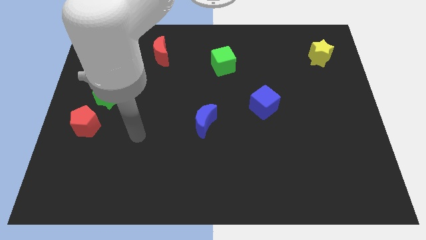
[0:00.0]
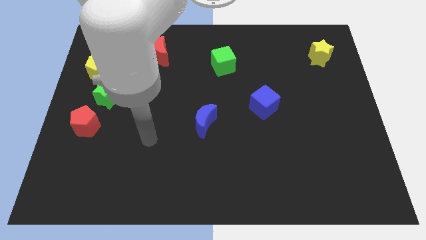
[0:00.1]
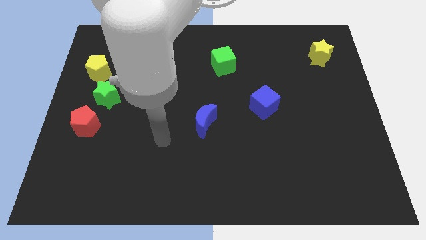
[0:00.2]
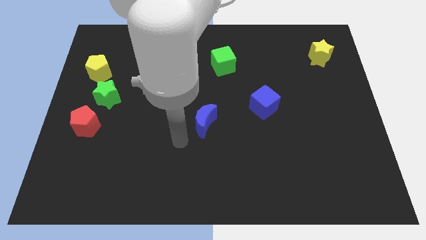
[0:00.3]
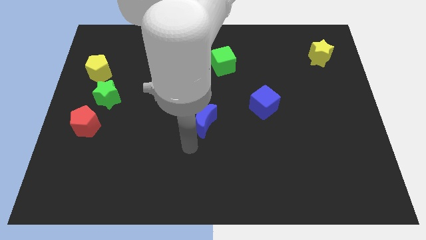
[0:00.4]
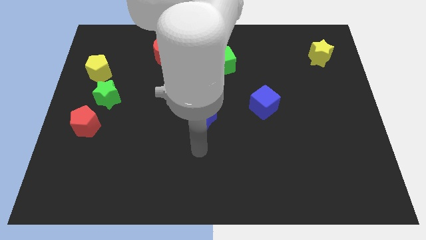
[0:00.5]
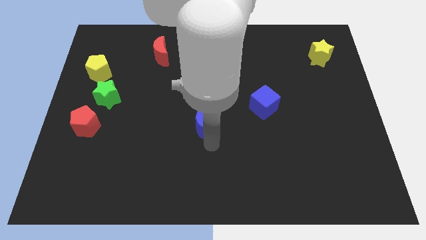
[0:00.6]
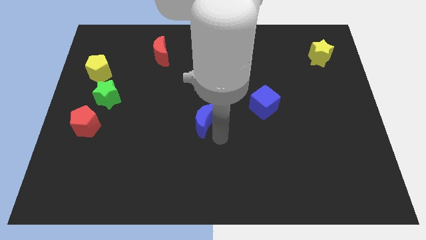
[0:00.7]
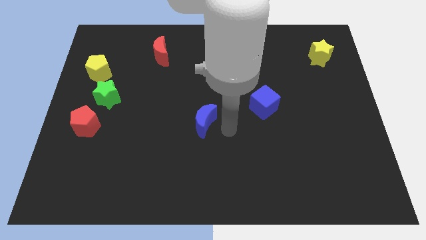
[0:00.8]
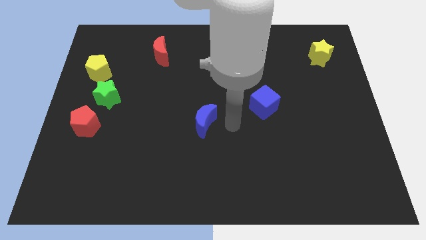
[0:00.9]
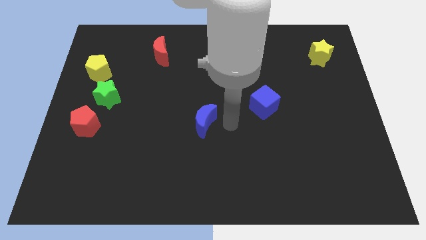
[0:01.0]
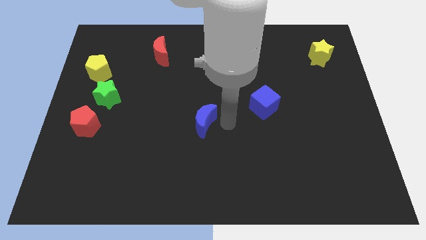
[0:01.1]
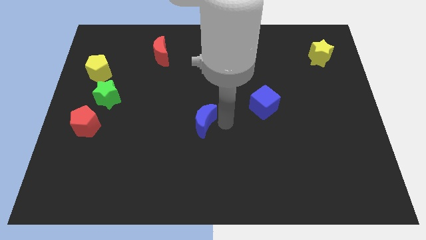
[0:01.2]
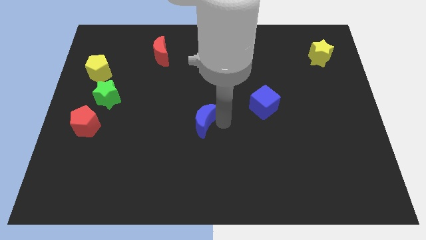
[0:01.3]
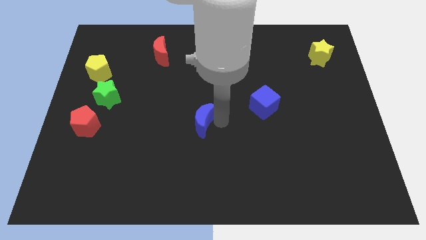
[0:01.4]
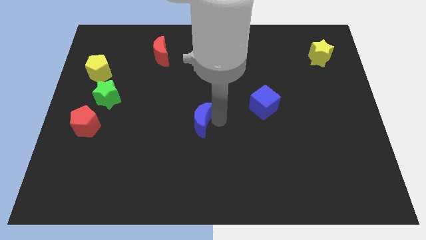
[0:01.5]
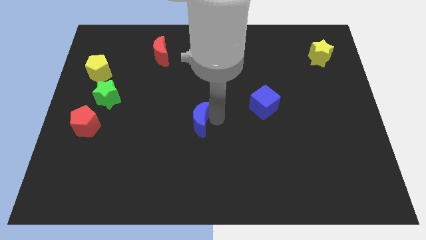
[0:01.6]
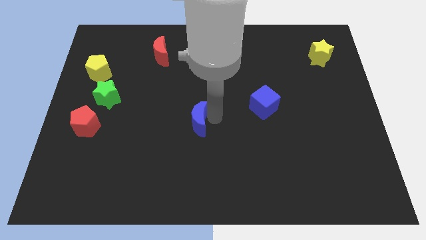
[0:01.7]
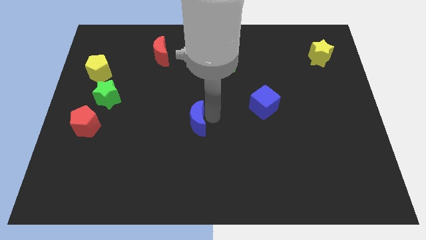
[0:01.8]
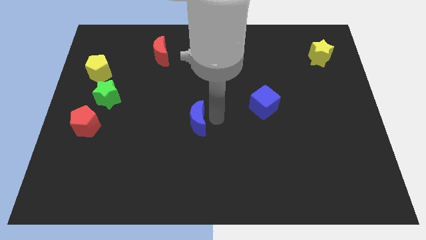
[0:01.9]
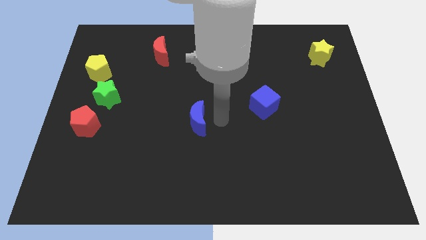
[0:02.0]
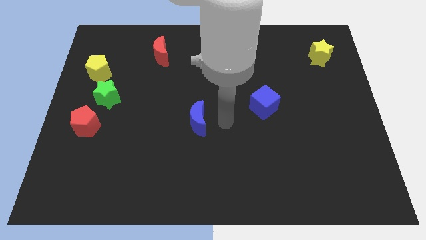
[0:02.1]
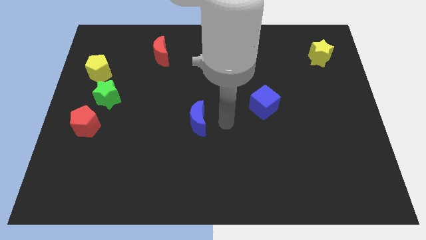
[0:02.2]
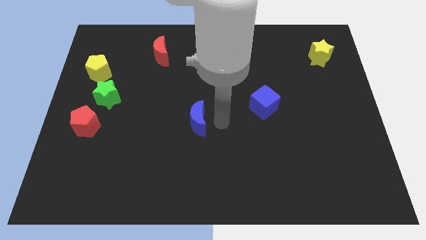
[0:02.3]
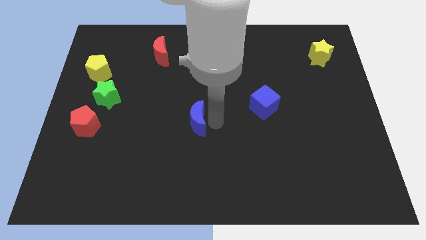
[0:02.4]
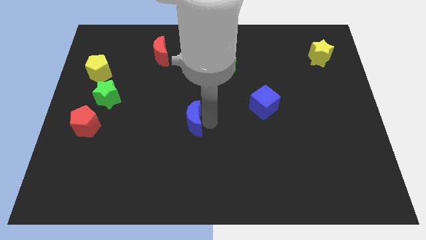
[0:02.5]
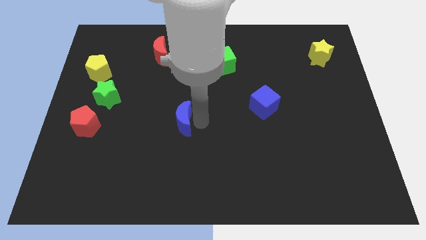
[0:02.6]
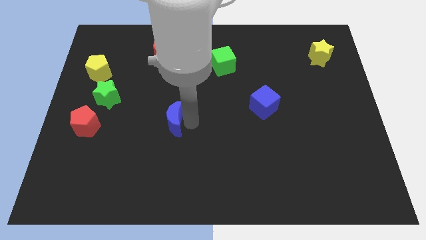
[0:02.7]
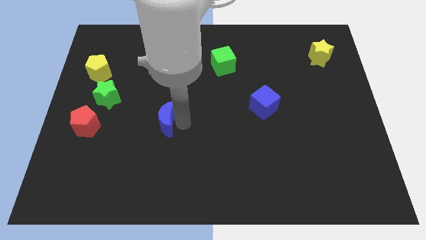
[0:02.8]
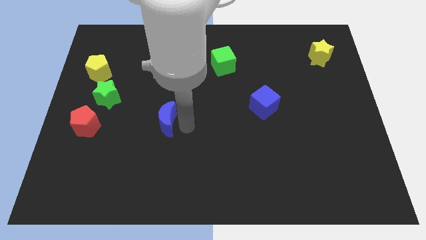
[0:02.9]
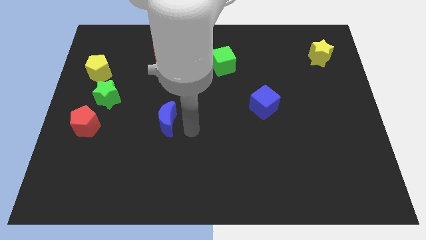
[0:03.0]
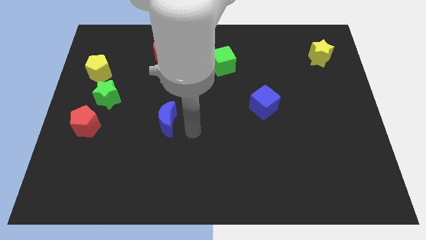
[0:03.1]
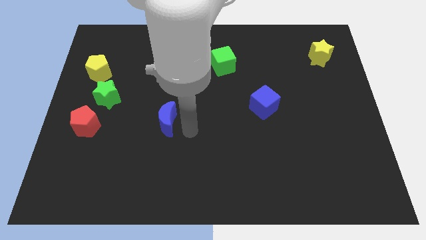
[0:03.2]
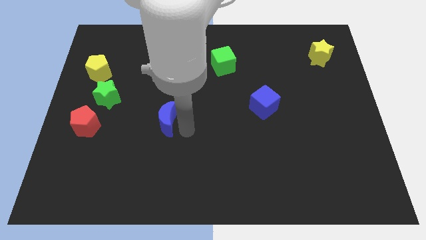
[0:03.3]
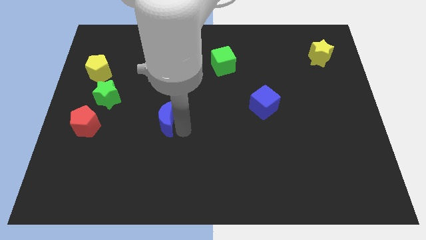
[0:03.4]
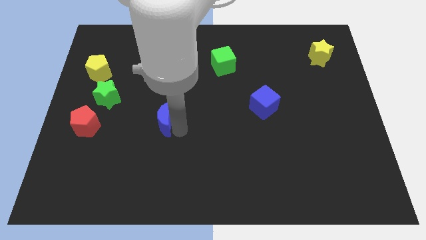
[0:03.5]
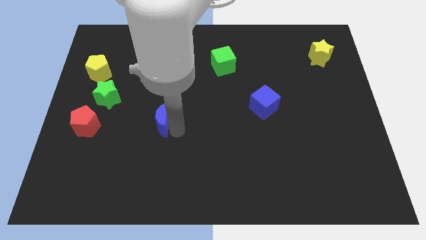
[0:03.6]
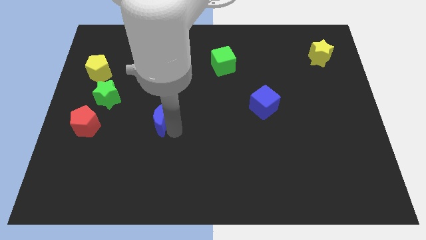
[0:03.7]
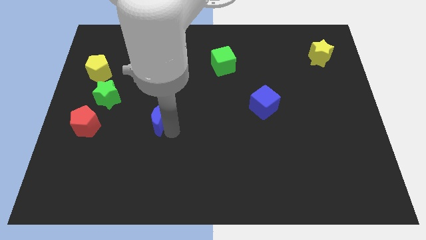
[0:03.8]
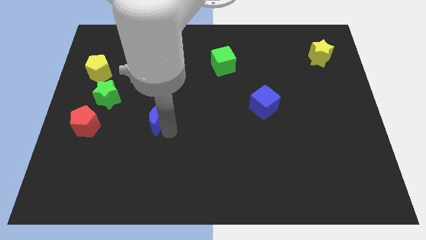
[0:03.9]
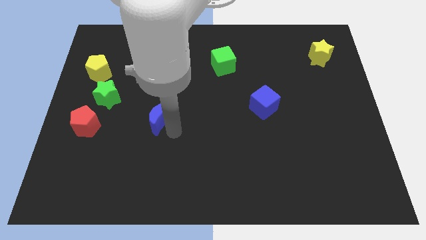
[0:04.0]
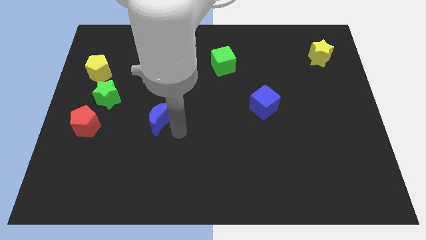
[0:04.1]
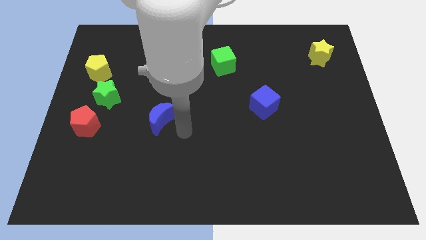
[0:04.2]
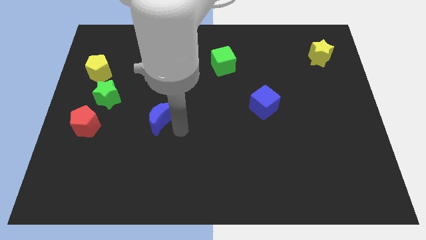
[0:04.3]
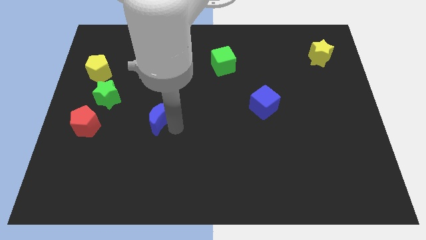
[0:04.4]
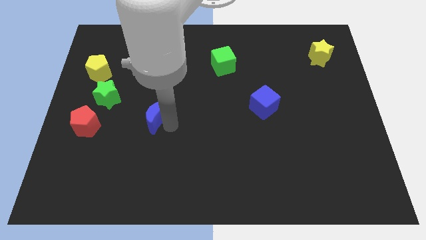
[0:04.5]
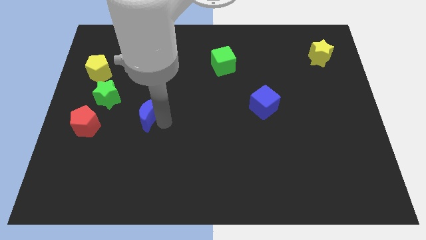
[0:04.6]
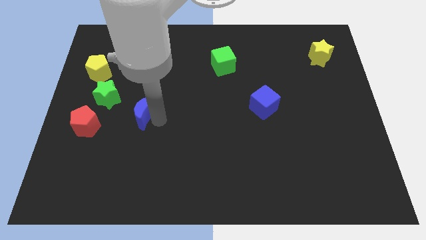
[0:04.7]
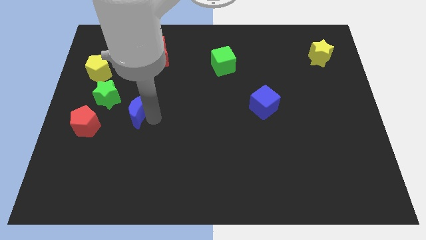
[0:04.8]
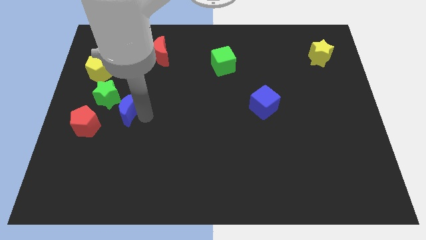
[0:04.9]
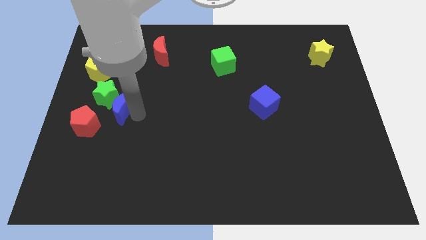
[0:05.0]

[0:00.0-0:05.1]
slide the blue moon close to the green star

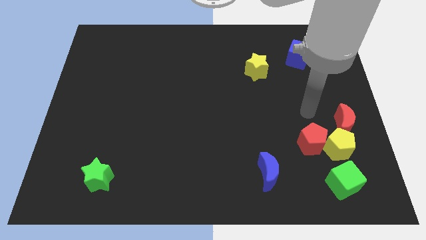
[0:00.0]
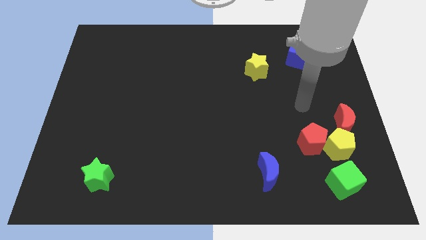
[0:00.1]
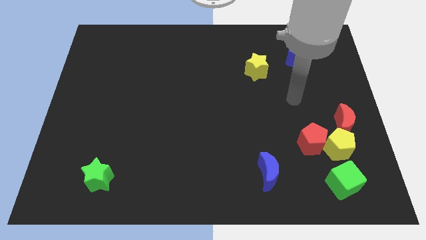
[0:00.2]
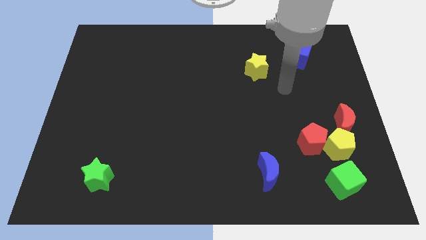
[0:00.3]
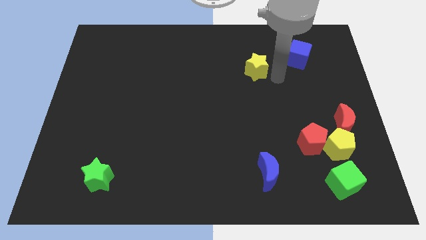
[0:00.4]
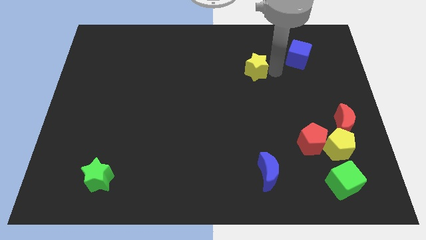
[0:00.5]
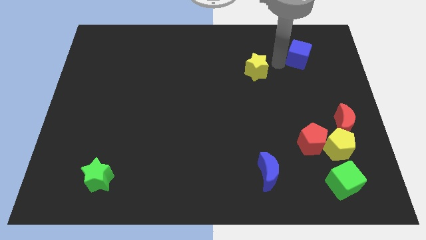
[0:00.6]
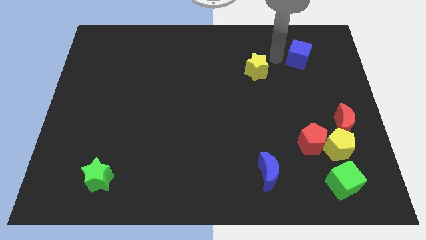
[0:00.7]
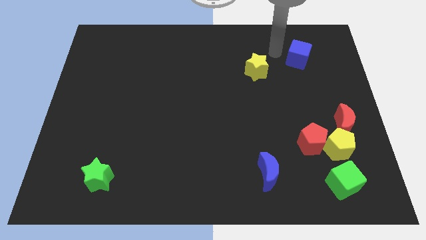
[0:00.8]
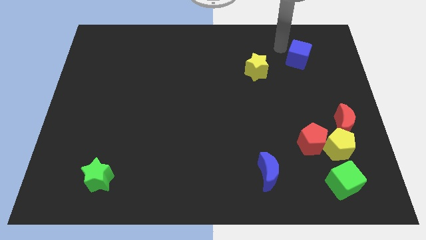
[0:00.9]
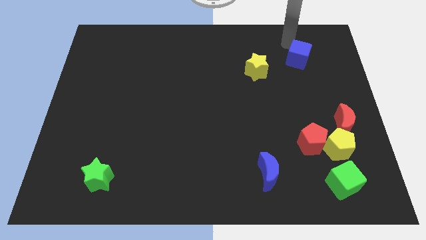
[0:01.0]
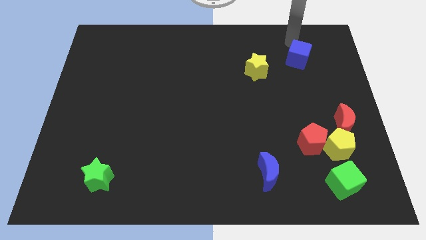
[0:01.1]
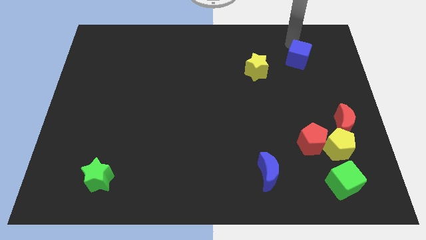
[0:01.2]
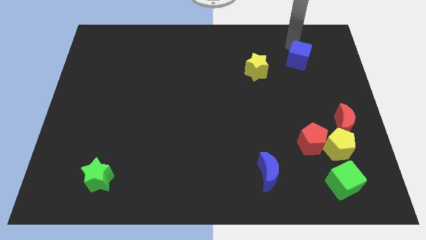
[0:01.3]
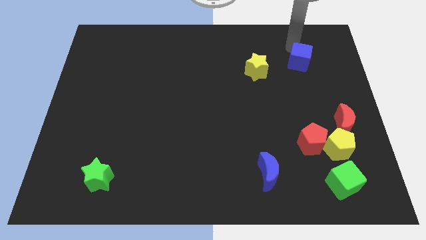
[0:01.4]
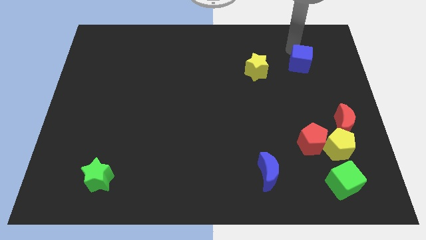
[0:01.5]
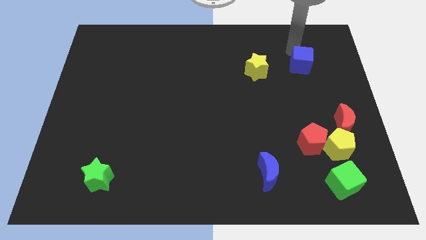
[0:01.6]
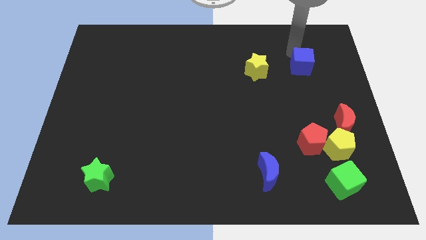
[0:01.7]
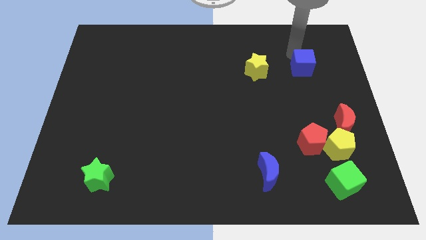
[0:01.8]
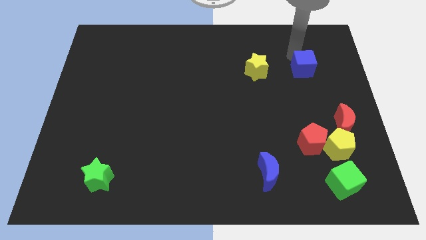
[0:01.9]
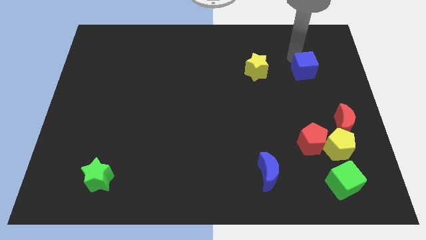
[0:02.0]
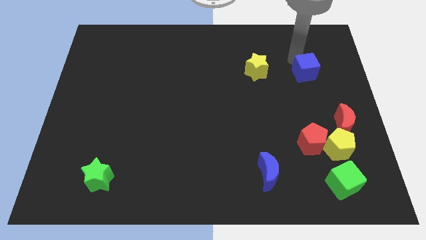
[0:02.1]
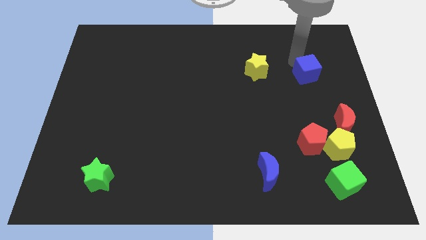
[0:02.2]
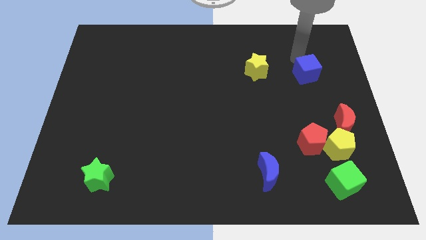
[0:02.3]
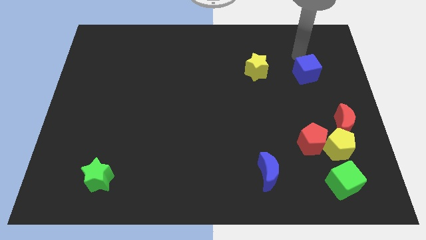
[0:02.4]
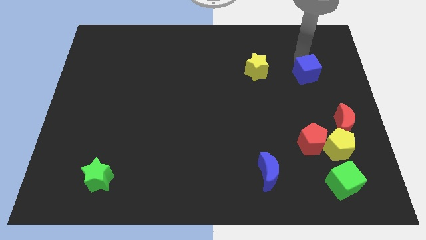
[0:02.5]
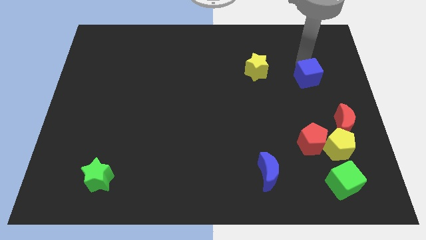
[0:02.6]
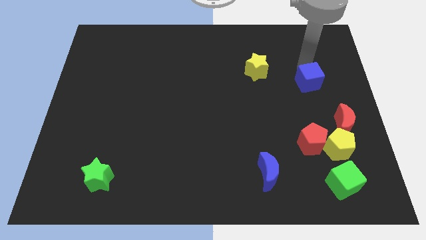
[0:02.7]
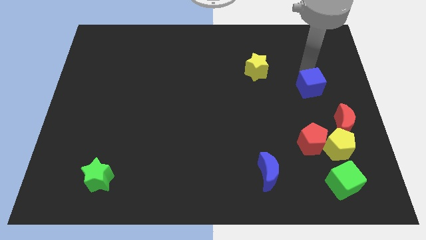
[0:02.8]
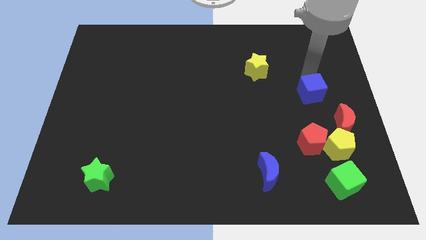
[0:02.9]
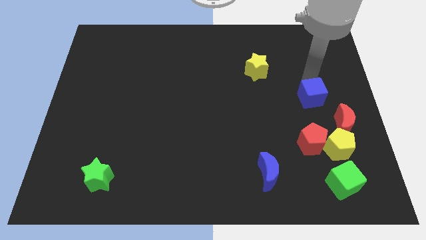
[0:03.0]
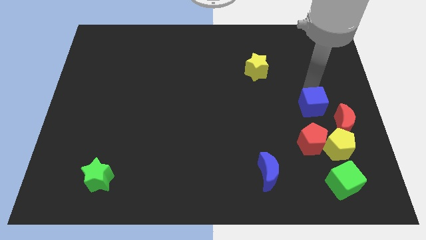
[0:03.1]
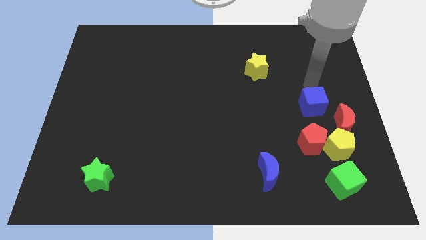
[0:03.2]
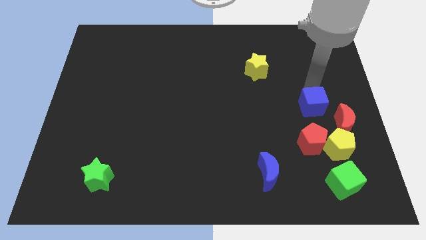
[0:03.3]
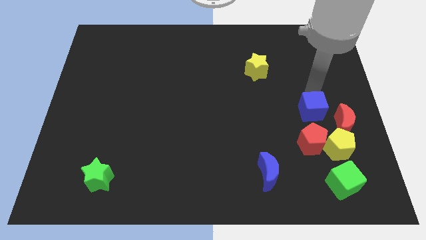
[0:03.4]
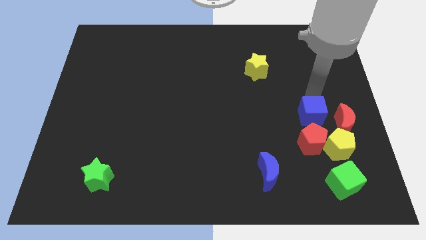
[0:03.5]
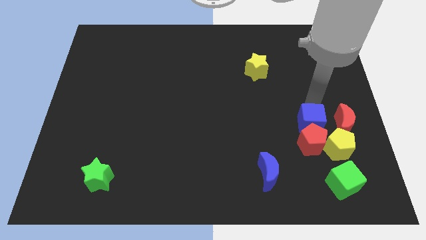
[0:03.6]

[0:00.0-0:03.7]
slide the blue cube next to the red pentagon
